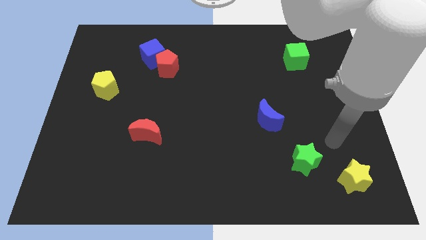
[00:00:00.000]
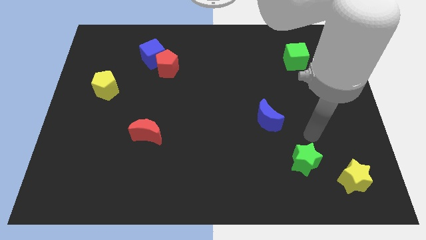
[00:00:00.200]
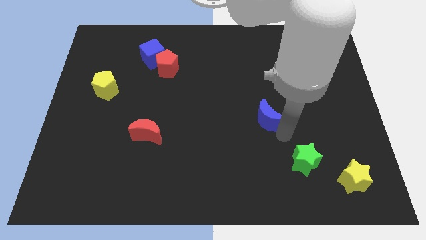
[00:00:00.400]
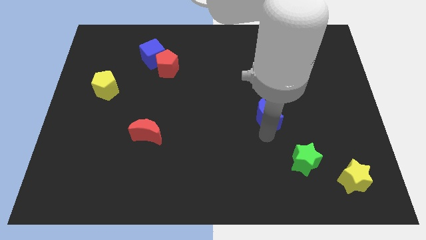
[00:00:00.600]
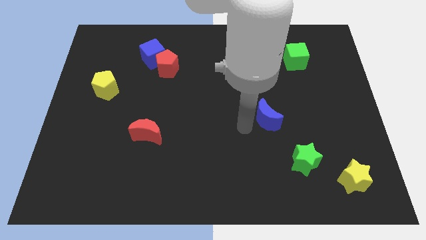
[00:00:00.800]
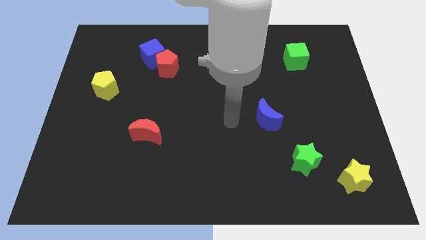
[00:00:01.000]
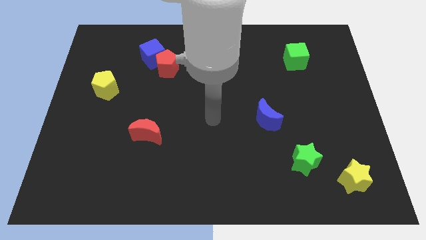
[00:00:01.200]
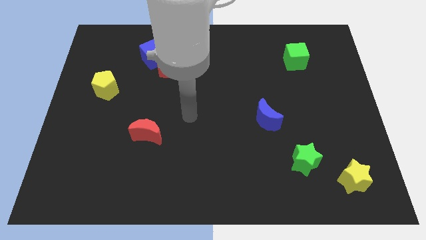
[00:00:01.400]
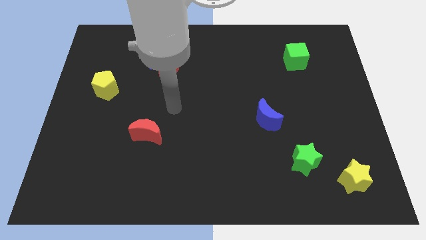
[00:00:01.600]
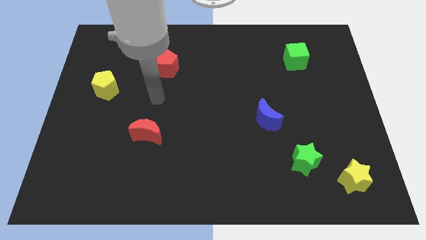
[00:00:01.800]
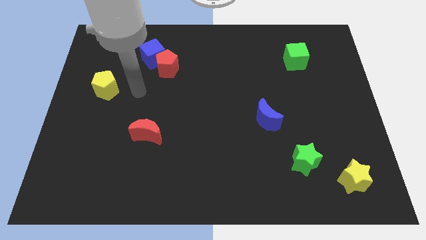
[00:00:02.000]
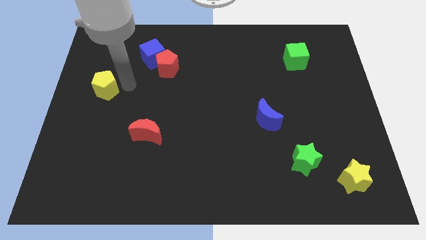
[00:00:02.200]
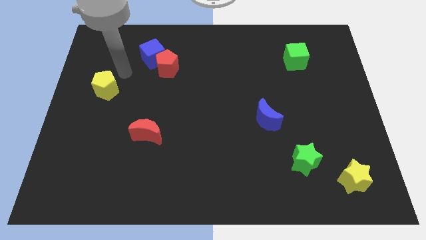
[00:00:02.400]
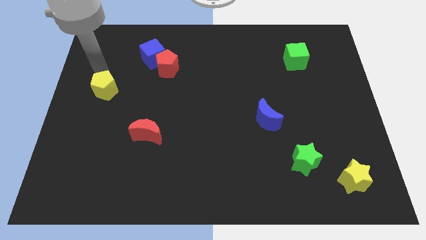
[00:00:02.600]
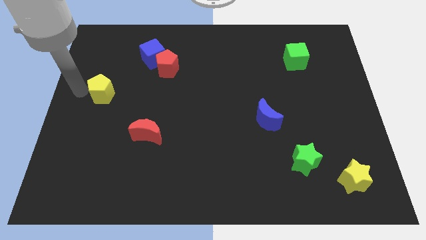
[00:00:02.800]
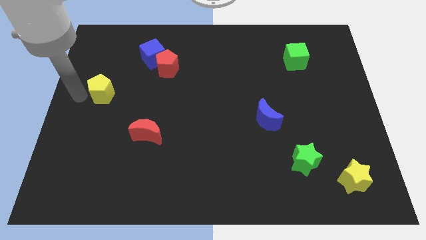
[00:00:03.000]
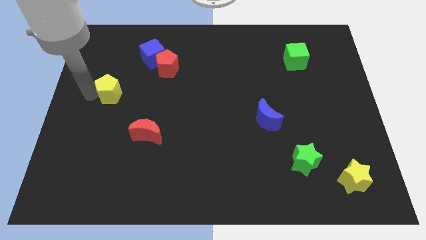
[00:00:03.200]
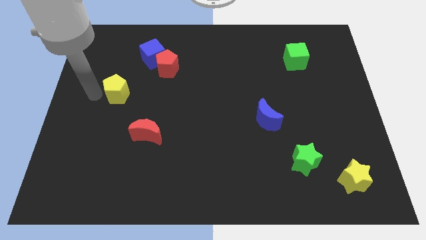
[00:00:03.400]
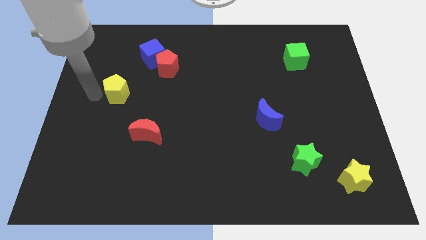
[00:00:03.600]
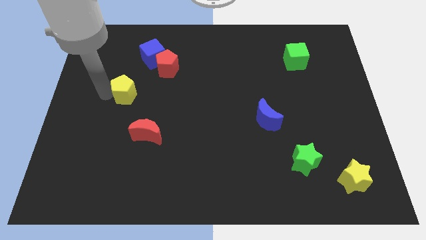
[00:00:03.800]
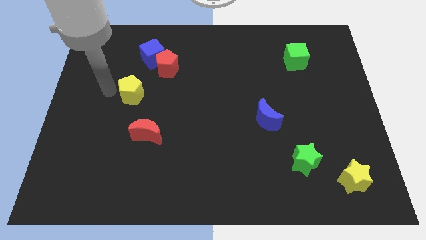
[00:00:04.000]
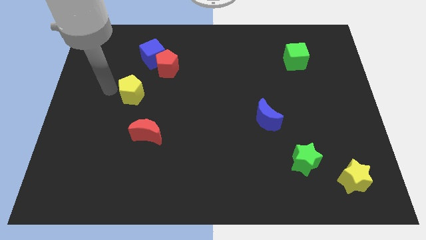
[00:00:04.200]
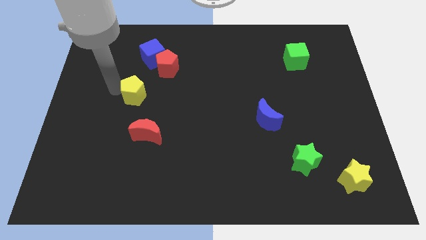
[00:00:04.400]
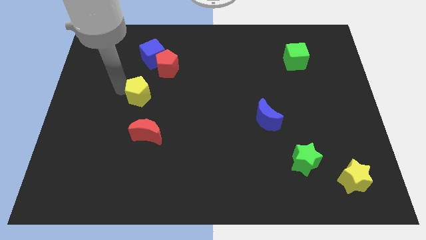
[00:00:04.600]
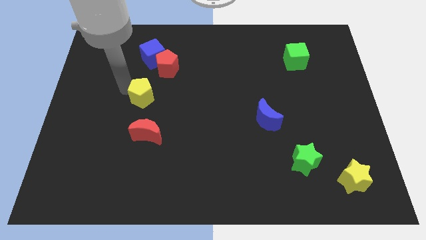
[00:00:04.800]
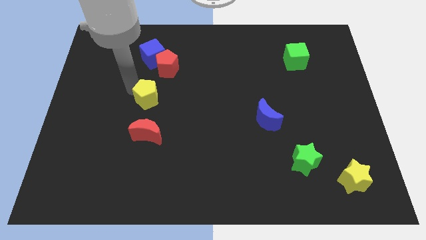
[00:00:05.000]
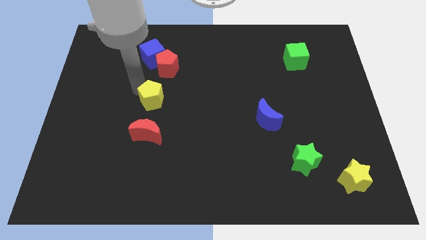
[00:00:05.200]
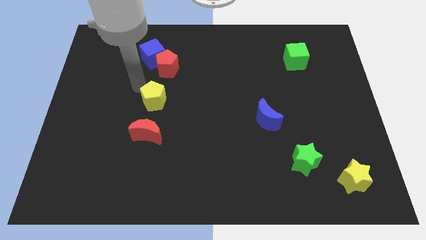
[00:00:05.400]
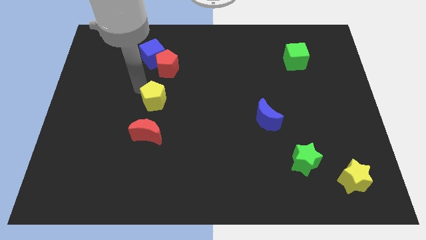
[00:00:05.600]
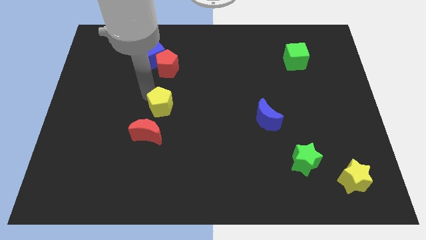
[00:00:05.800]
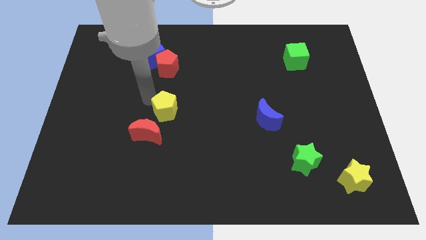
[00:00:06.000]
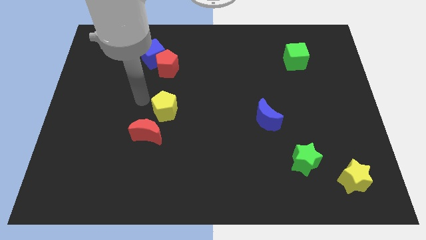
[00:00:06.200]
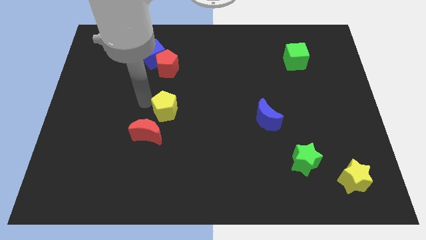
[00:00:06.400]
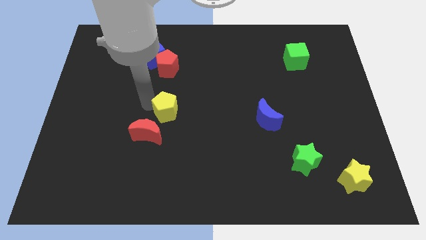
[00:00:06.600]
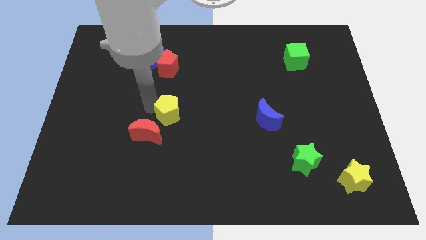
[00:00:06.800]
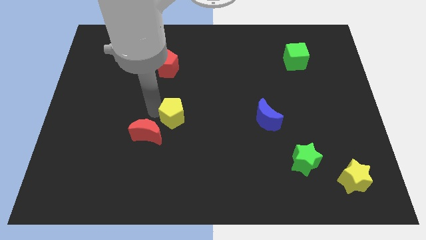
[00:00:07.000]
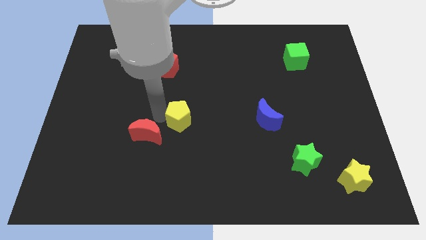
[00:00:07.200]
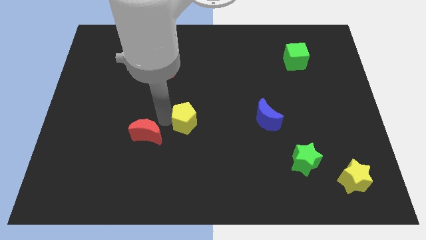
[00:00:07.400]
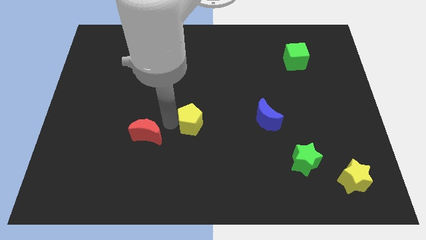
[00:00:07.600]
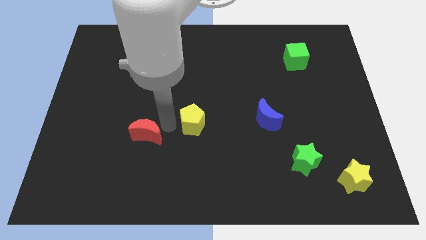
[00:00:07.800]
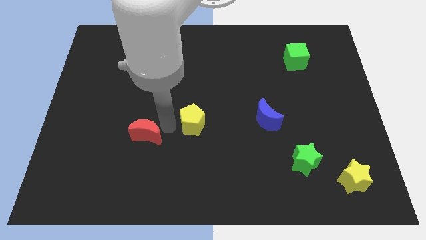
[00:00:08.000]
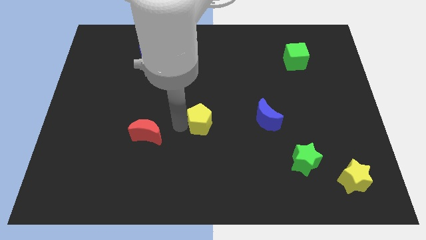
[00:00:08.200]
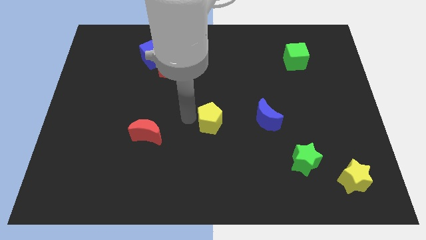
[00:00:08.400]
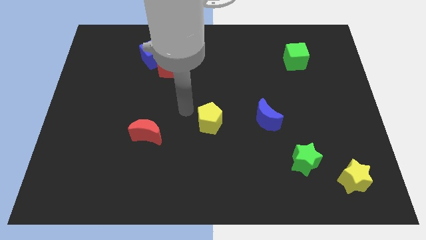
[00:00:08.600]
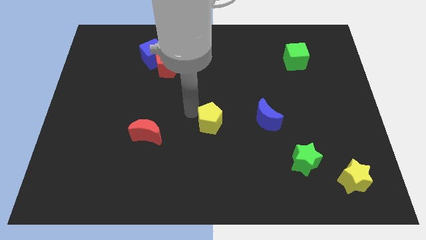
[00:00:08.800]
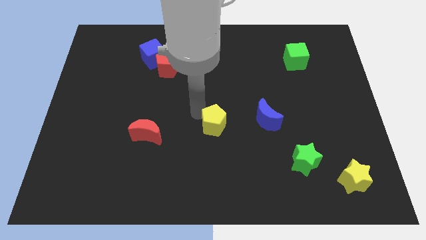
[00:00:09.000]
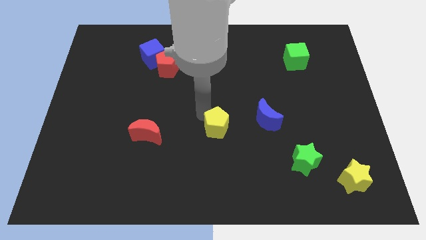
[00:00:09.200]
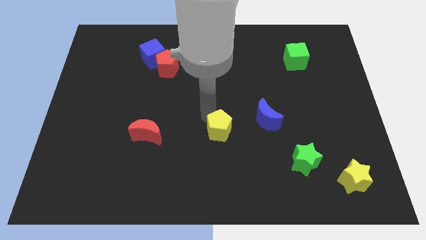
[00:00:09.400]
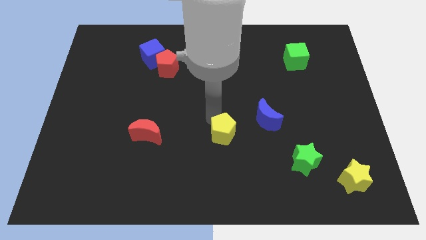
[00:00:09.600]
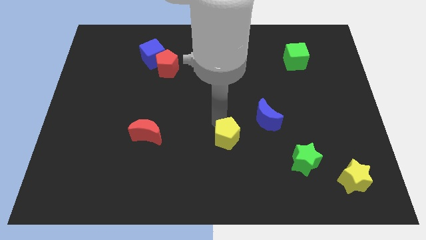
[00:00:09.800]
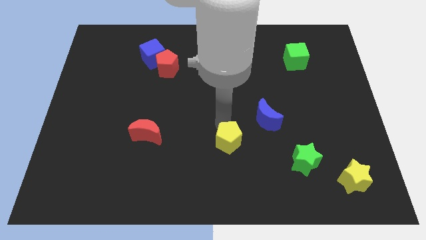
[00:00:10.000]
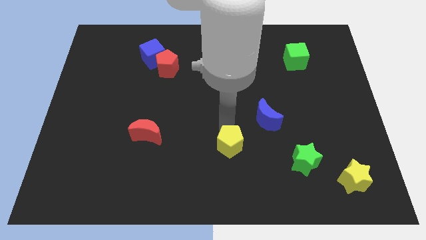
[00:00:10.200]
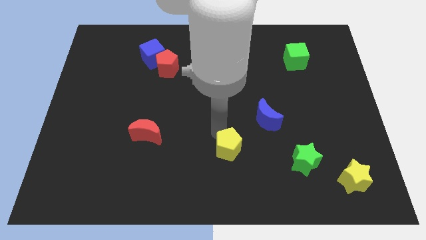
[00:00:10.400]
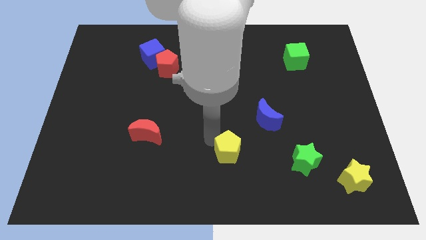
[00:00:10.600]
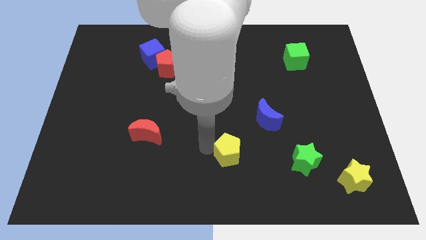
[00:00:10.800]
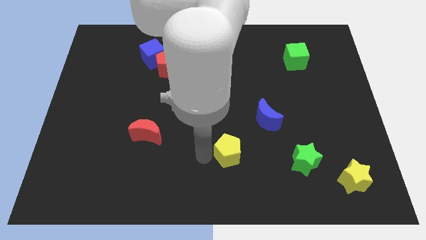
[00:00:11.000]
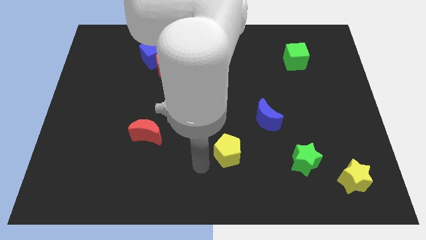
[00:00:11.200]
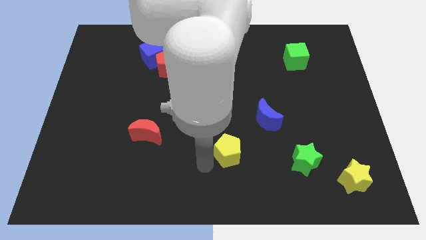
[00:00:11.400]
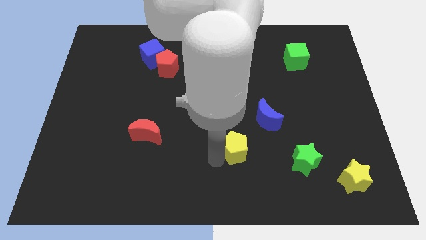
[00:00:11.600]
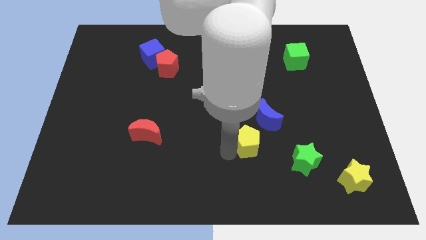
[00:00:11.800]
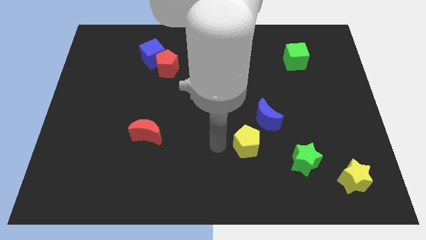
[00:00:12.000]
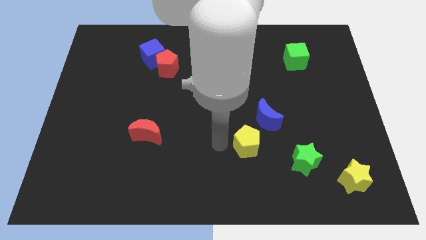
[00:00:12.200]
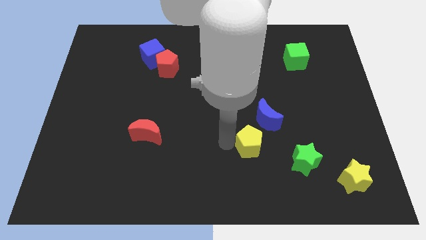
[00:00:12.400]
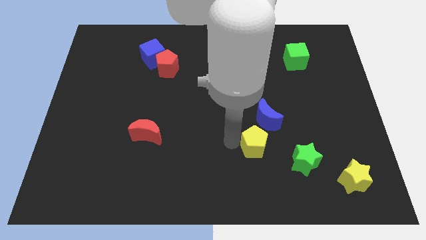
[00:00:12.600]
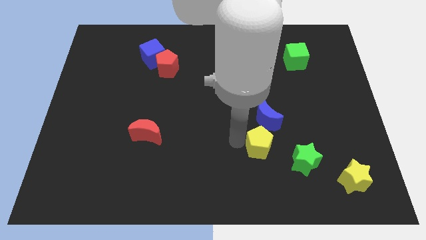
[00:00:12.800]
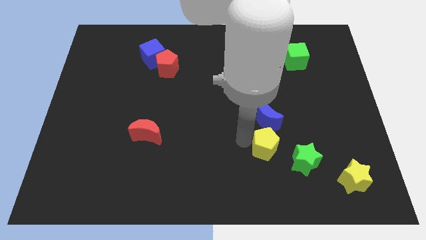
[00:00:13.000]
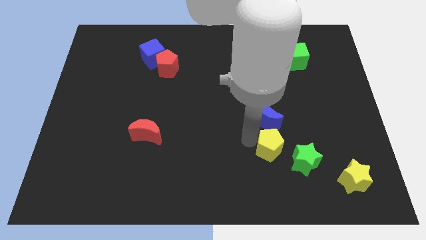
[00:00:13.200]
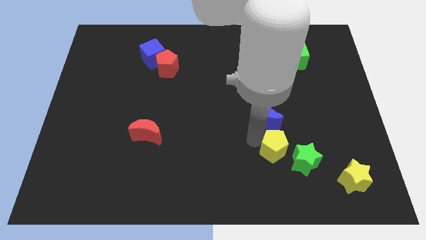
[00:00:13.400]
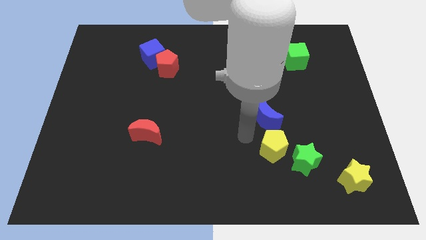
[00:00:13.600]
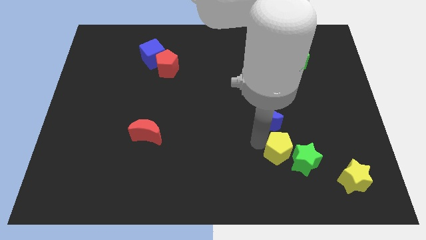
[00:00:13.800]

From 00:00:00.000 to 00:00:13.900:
move the yellow pentagon next to the green star
